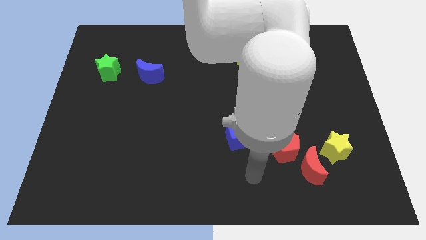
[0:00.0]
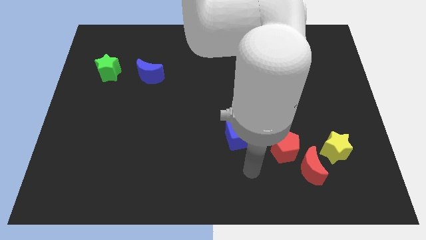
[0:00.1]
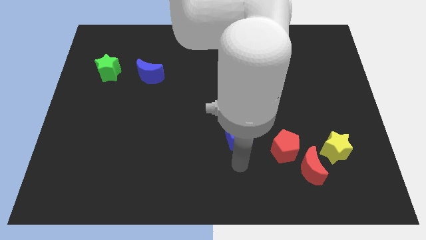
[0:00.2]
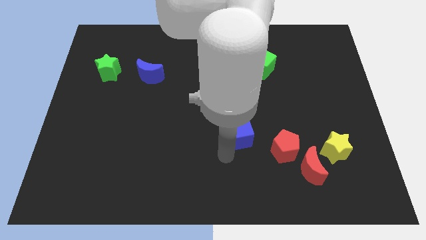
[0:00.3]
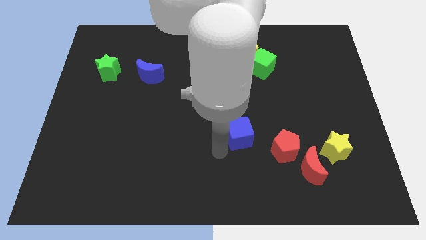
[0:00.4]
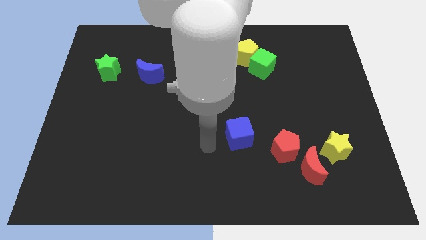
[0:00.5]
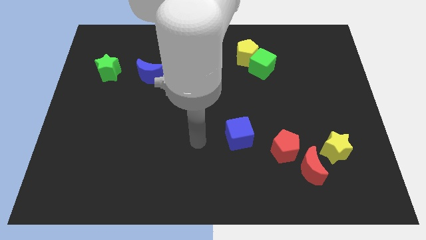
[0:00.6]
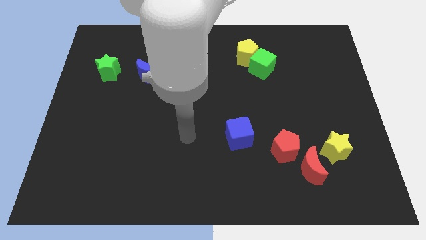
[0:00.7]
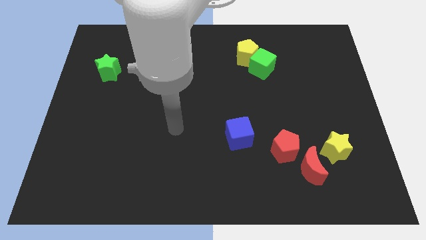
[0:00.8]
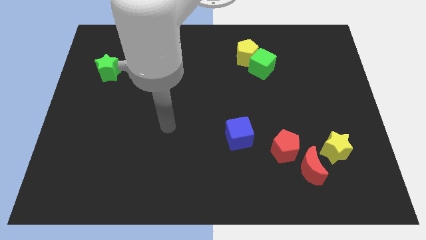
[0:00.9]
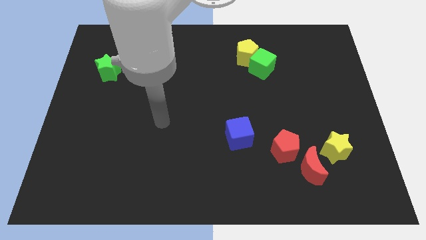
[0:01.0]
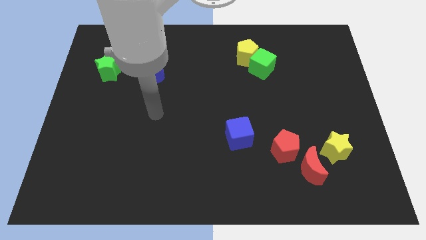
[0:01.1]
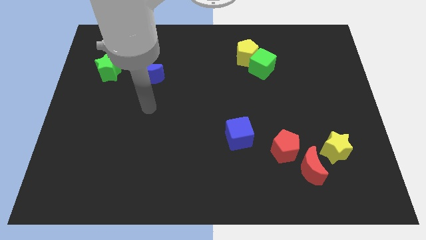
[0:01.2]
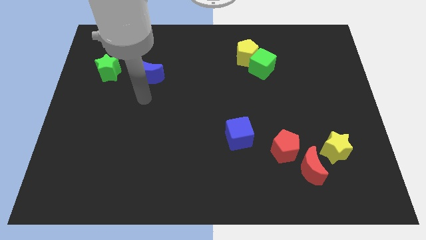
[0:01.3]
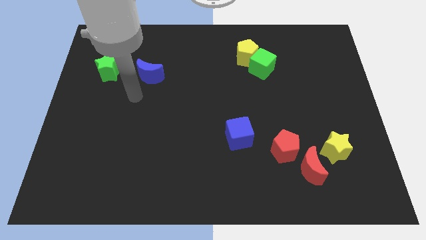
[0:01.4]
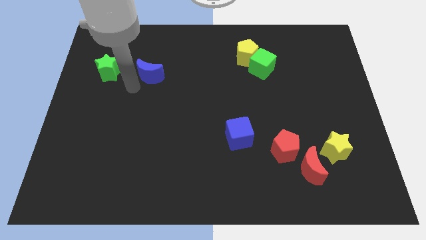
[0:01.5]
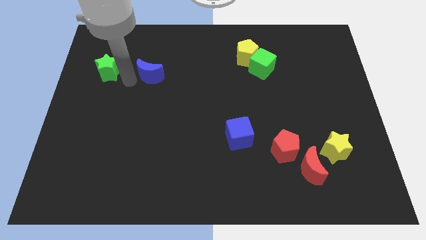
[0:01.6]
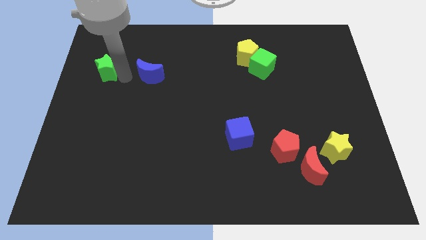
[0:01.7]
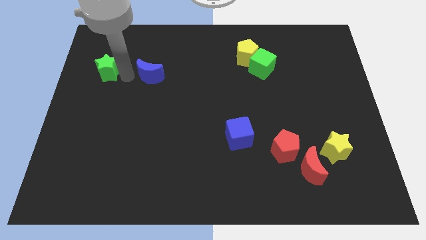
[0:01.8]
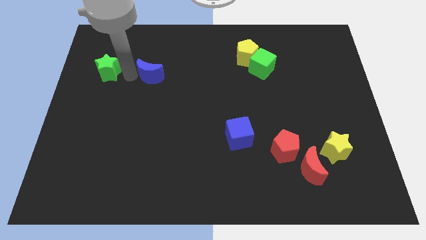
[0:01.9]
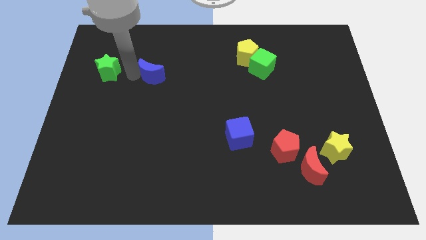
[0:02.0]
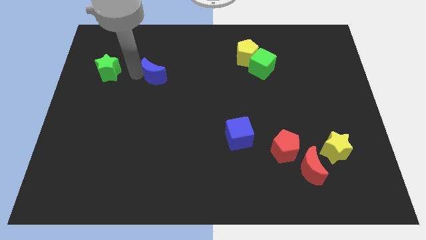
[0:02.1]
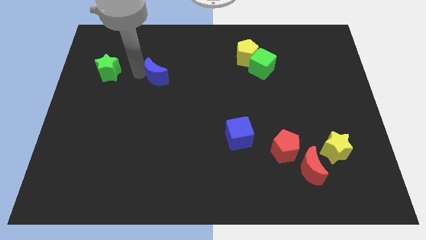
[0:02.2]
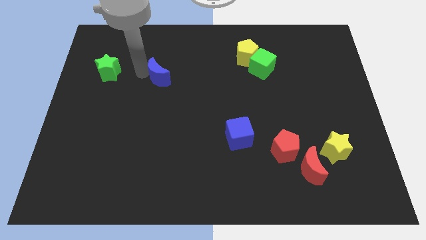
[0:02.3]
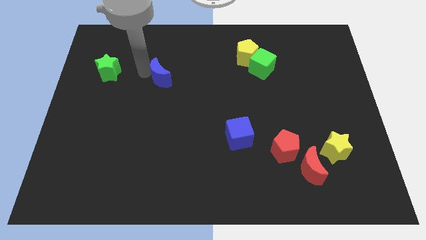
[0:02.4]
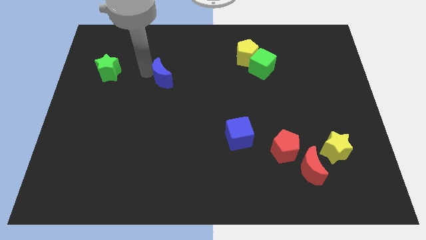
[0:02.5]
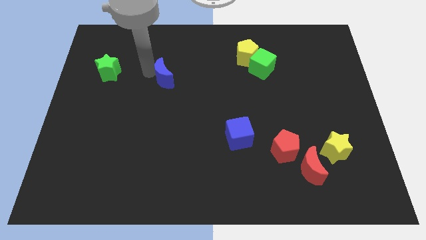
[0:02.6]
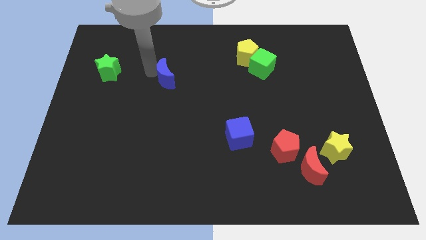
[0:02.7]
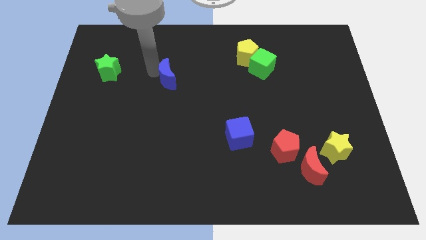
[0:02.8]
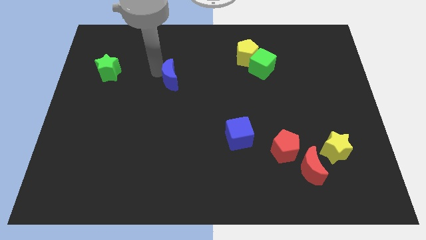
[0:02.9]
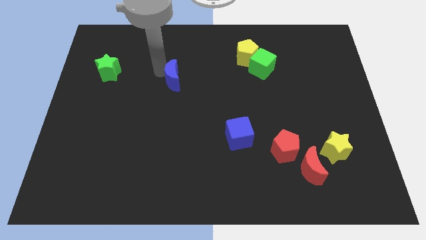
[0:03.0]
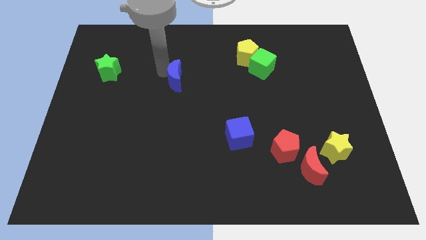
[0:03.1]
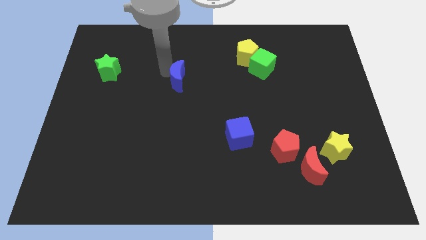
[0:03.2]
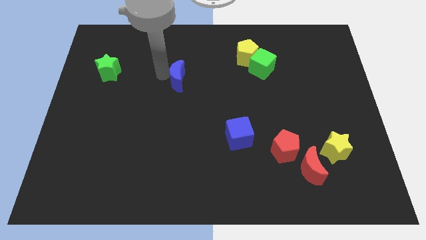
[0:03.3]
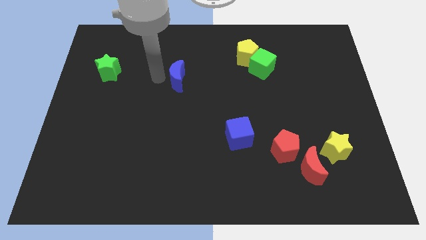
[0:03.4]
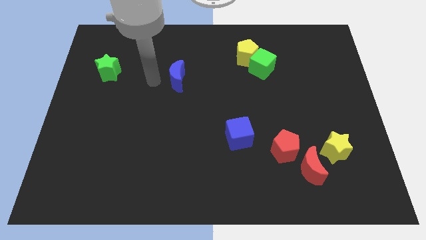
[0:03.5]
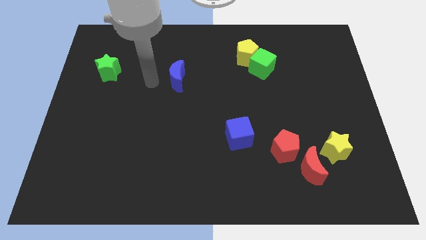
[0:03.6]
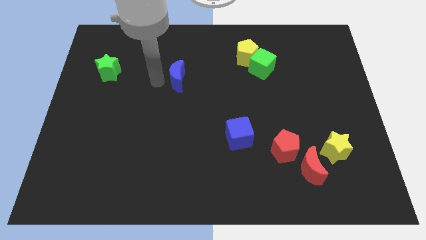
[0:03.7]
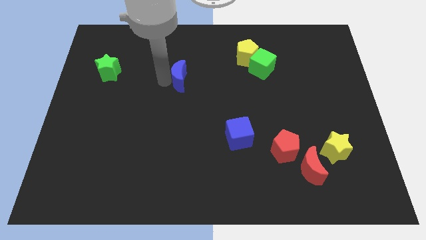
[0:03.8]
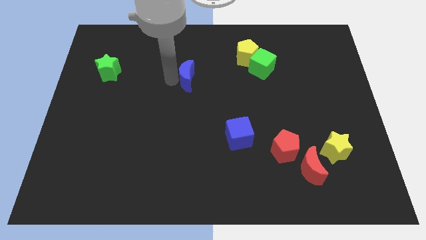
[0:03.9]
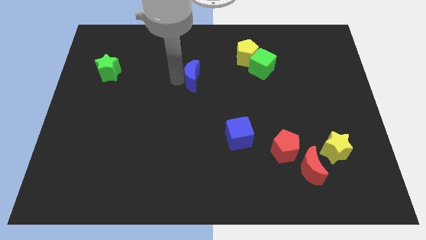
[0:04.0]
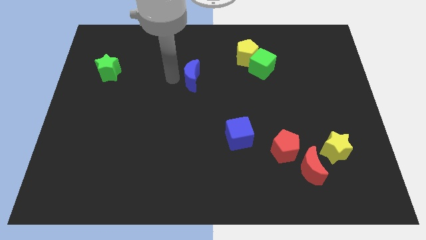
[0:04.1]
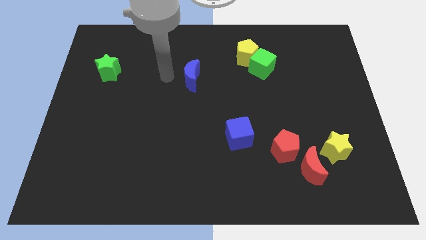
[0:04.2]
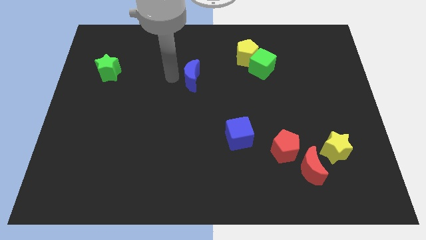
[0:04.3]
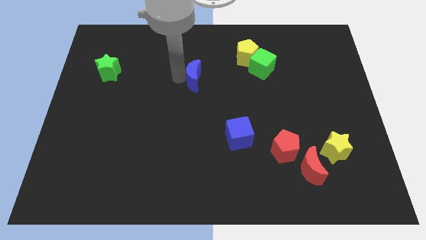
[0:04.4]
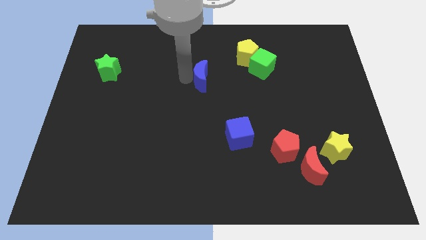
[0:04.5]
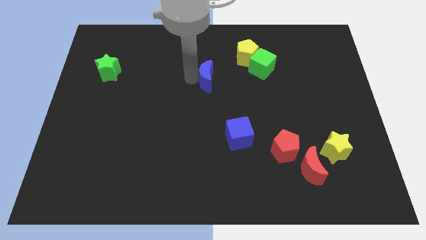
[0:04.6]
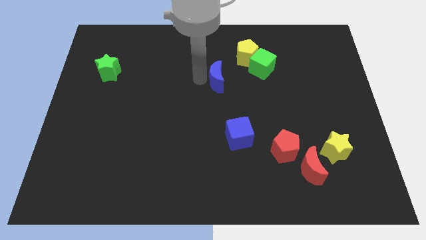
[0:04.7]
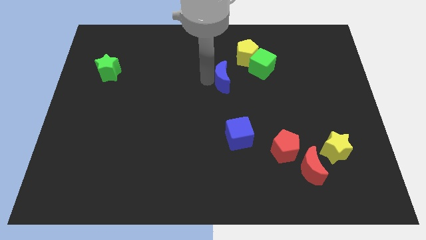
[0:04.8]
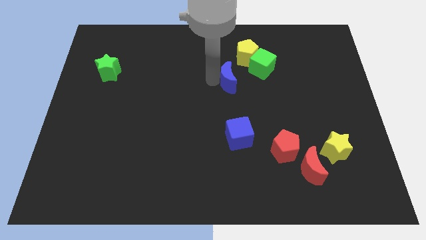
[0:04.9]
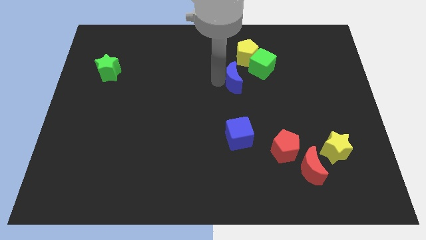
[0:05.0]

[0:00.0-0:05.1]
push the blue moon right

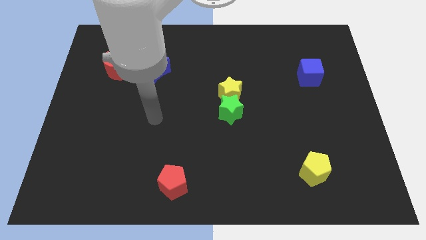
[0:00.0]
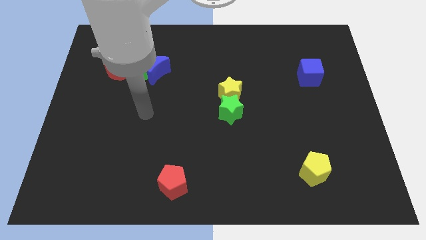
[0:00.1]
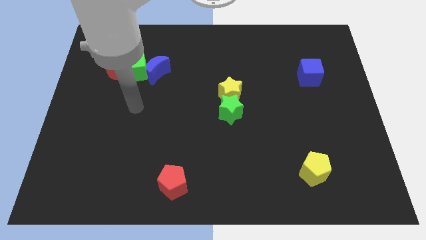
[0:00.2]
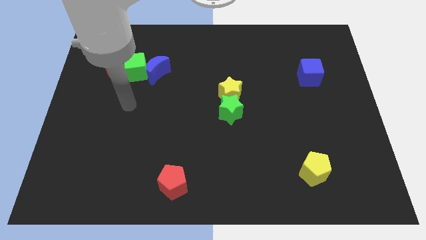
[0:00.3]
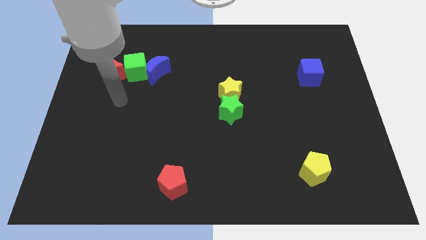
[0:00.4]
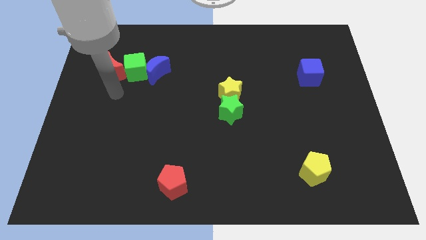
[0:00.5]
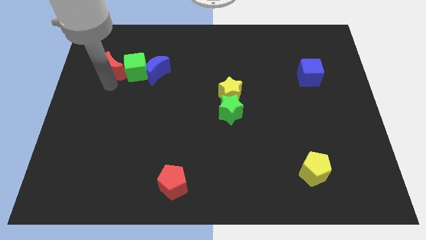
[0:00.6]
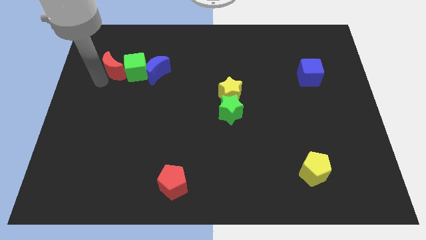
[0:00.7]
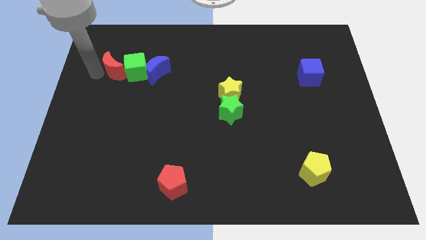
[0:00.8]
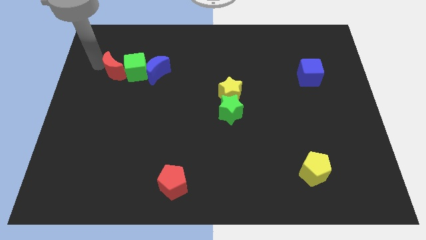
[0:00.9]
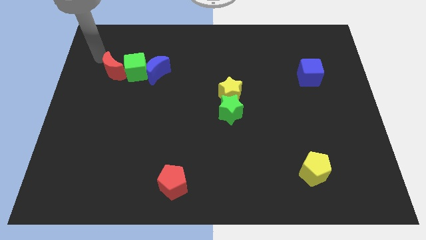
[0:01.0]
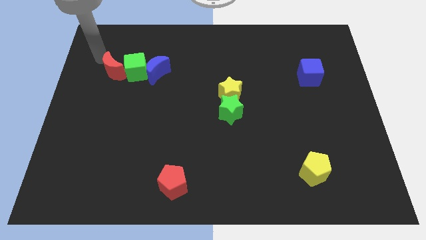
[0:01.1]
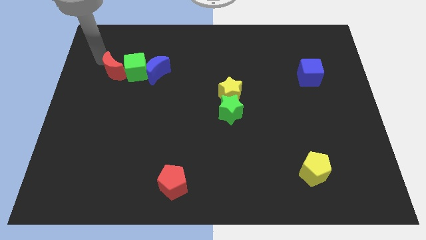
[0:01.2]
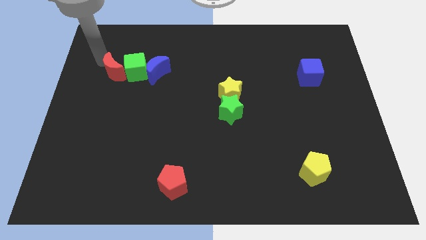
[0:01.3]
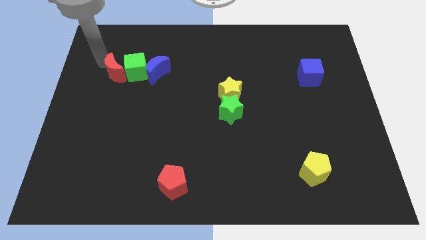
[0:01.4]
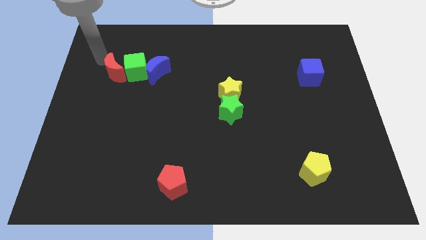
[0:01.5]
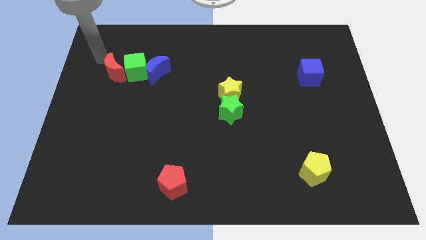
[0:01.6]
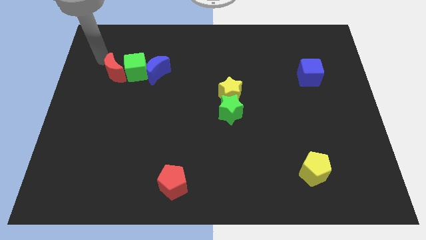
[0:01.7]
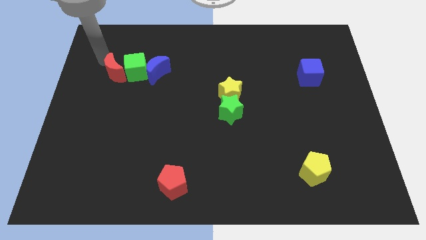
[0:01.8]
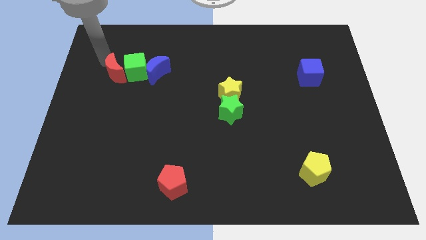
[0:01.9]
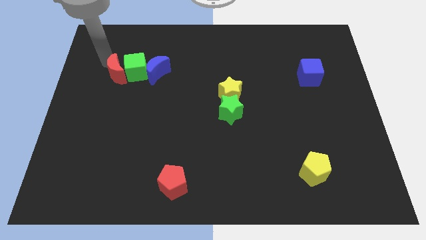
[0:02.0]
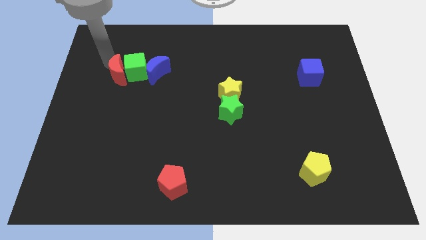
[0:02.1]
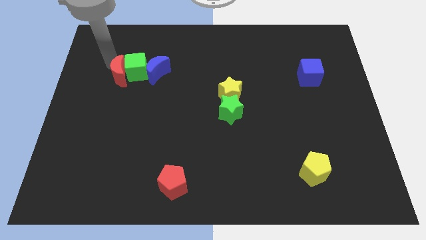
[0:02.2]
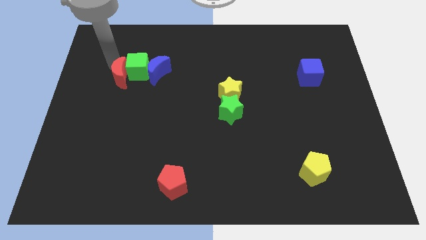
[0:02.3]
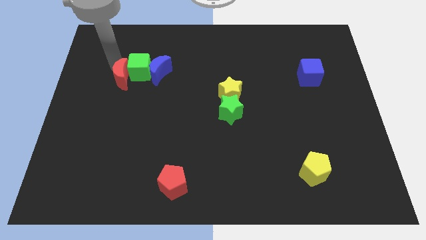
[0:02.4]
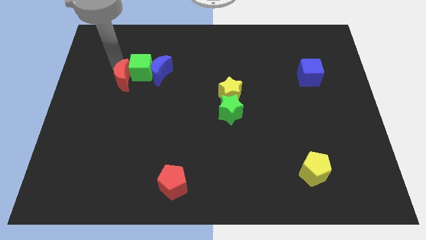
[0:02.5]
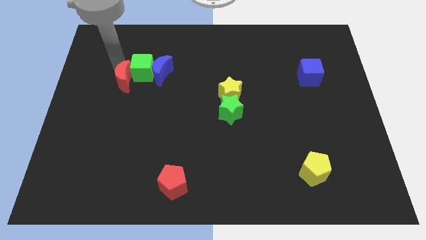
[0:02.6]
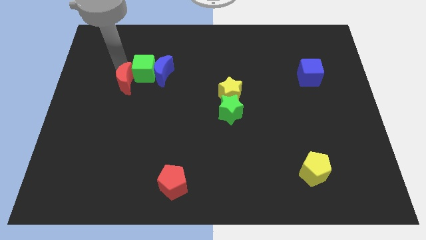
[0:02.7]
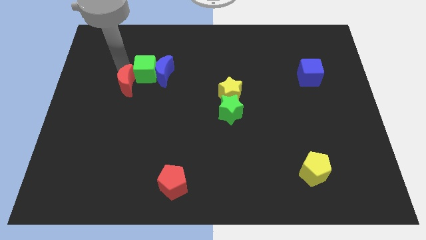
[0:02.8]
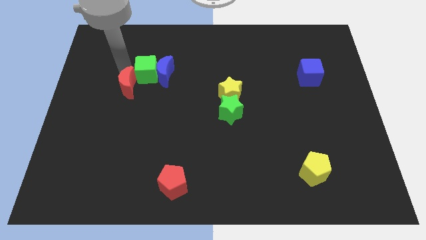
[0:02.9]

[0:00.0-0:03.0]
move the red moon a little diagonally down and to the right

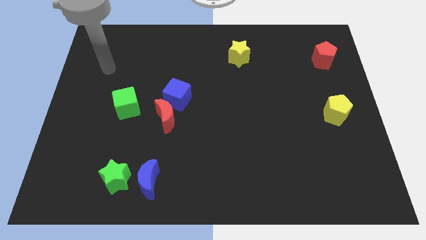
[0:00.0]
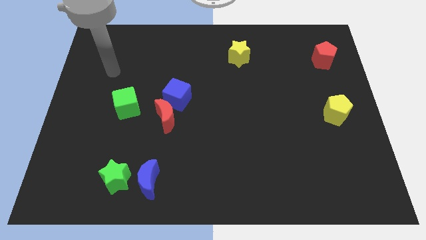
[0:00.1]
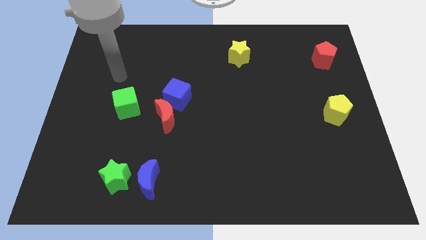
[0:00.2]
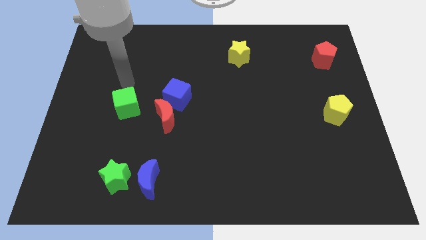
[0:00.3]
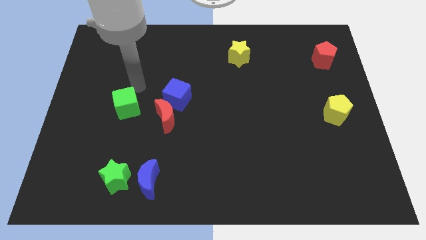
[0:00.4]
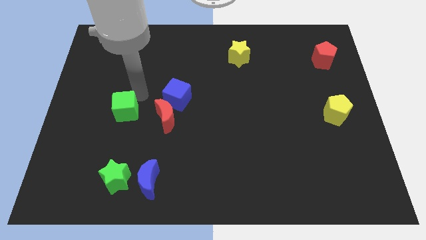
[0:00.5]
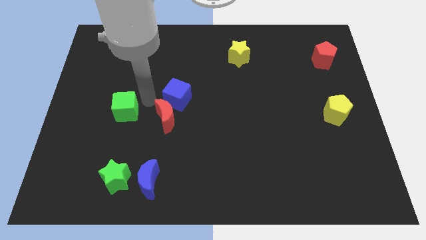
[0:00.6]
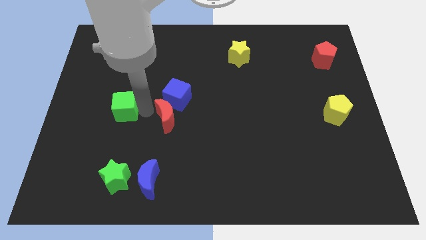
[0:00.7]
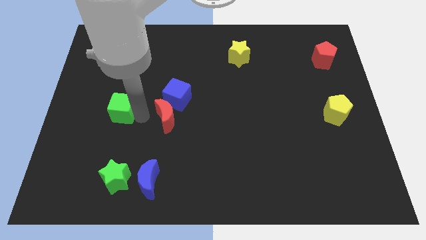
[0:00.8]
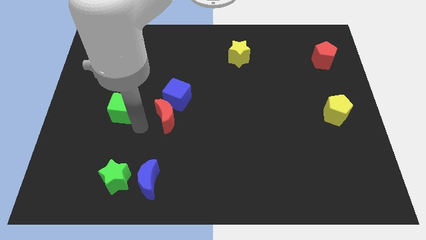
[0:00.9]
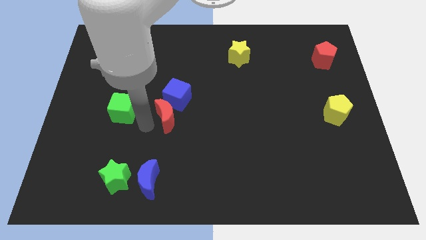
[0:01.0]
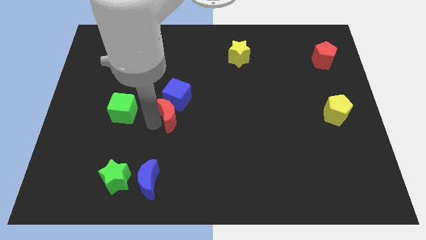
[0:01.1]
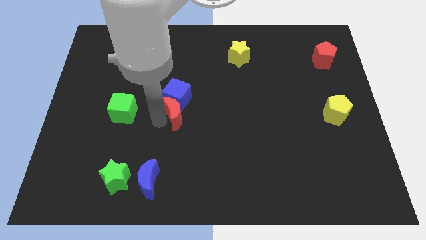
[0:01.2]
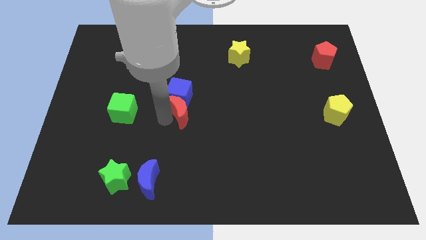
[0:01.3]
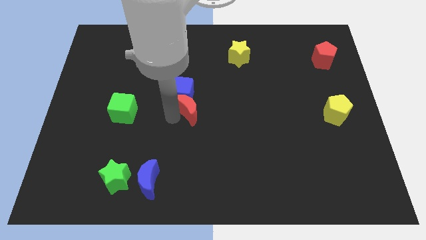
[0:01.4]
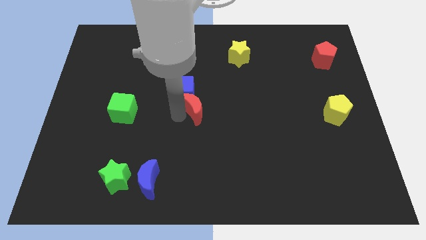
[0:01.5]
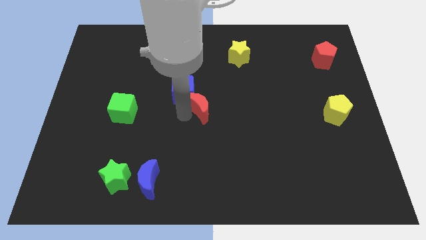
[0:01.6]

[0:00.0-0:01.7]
push the red moon a bit upwards and right
